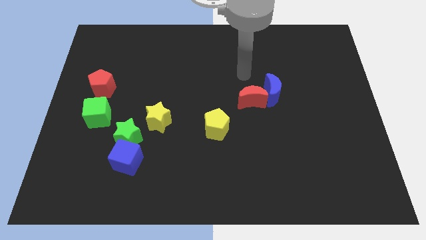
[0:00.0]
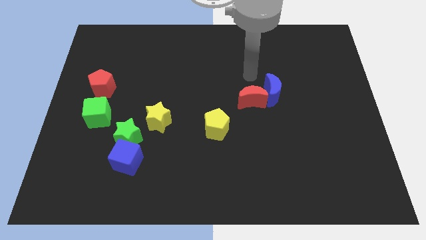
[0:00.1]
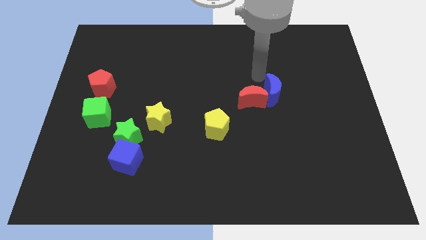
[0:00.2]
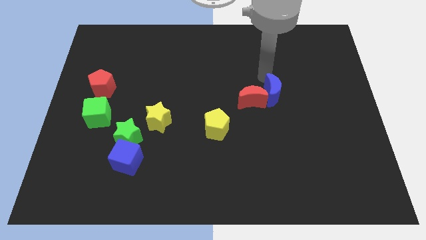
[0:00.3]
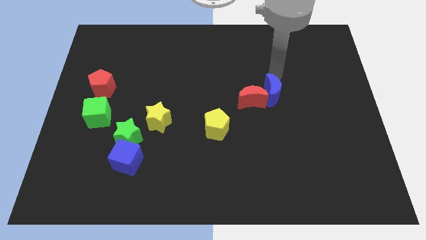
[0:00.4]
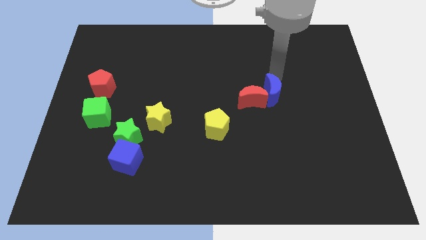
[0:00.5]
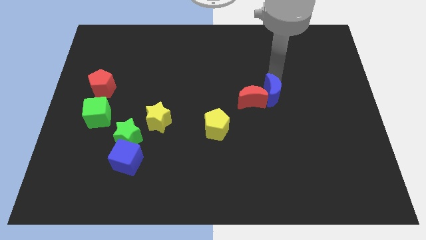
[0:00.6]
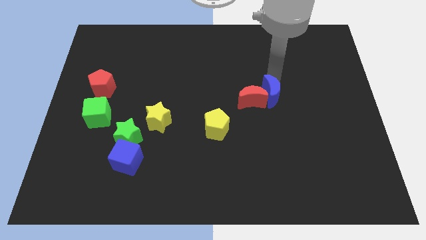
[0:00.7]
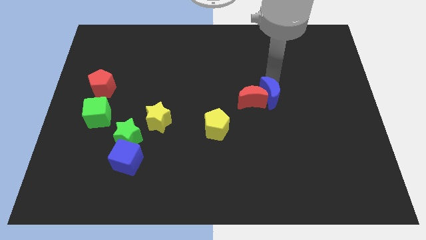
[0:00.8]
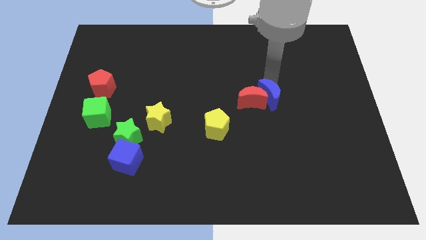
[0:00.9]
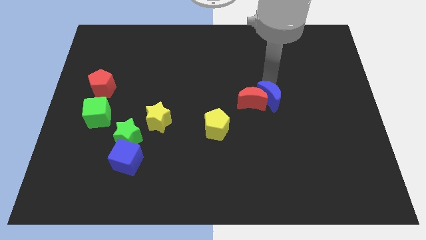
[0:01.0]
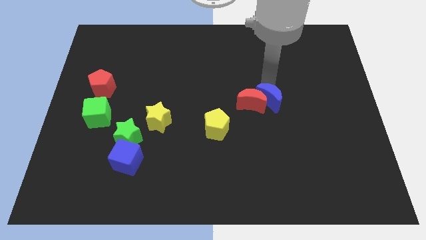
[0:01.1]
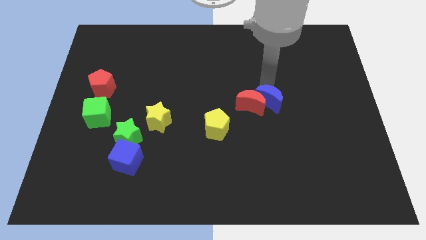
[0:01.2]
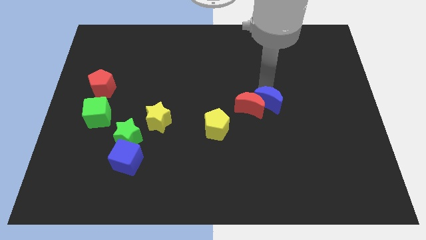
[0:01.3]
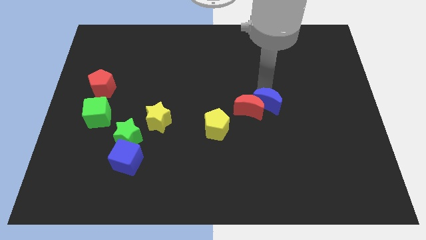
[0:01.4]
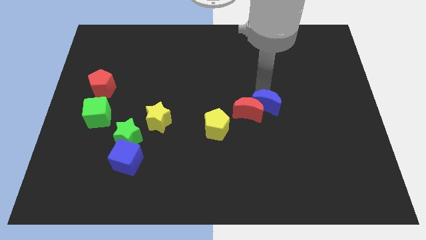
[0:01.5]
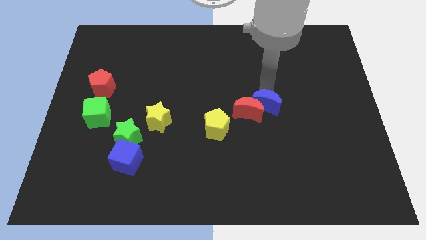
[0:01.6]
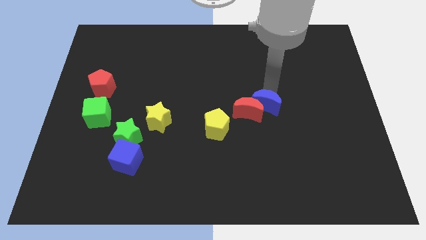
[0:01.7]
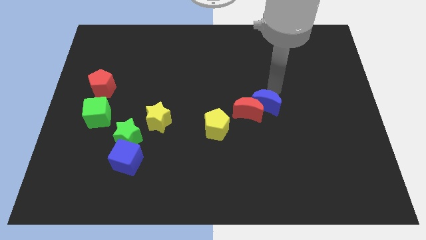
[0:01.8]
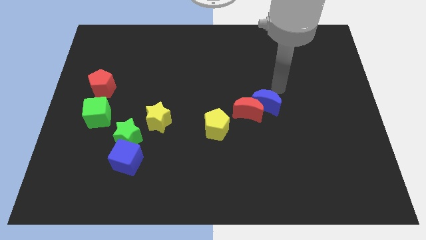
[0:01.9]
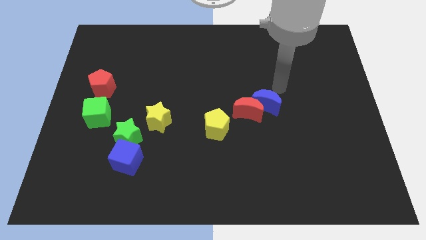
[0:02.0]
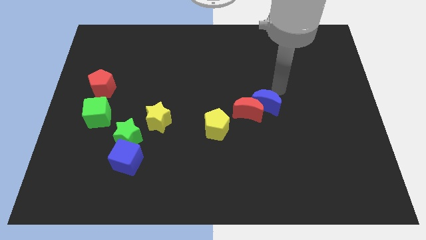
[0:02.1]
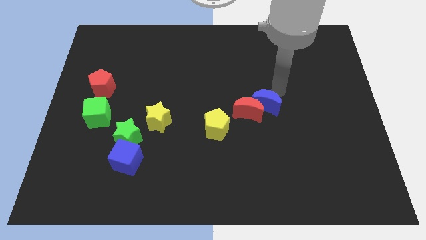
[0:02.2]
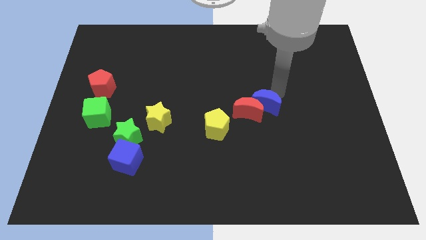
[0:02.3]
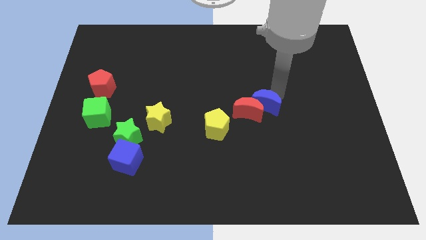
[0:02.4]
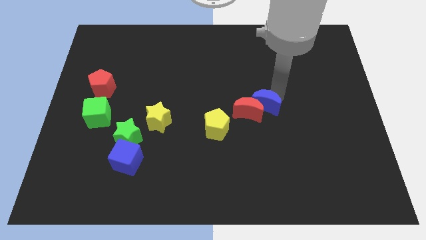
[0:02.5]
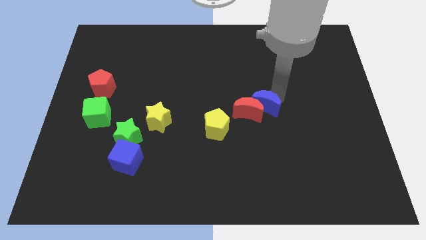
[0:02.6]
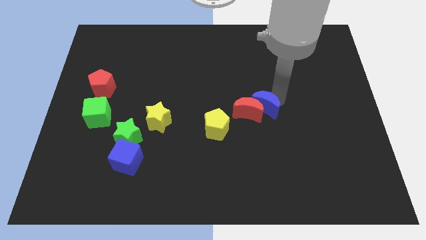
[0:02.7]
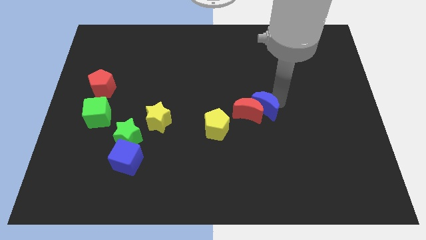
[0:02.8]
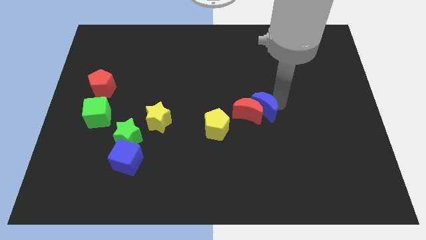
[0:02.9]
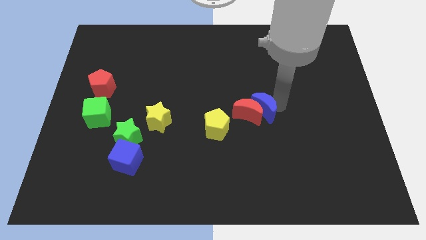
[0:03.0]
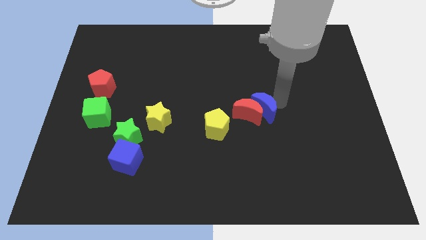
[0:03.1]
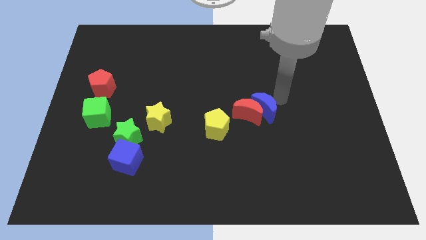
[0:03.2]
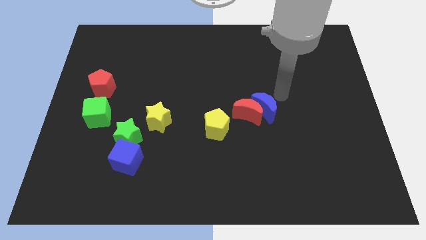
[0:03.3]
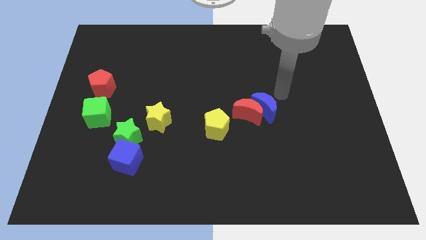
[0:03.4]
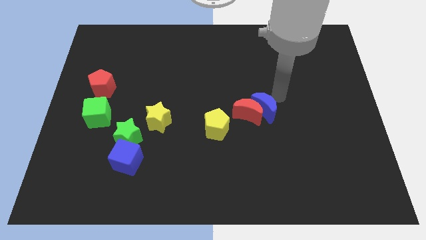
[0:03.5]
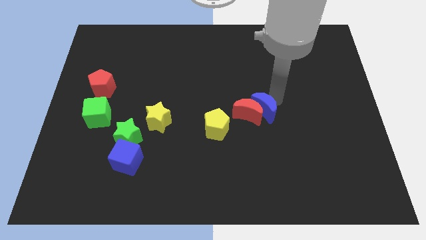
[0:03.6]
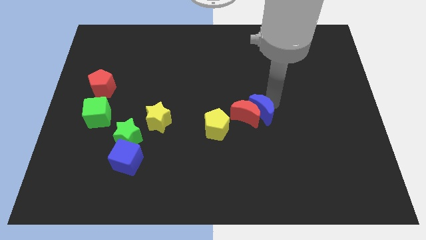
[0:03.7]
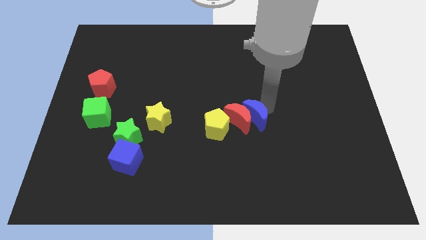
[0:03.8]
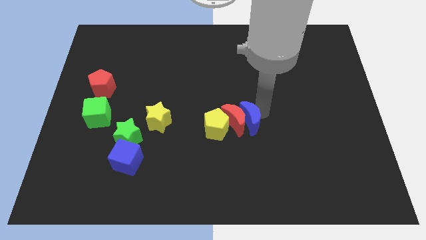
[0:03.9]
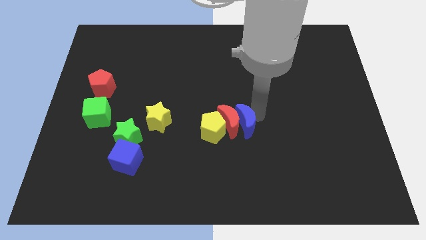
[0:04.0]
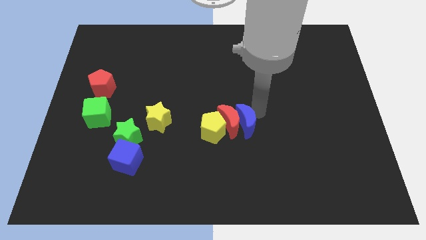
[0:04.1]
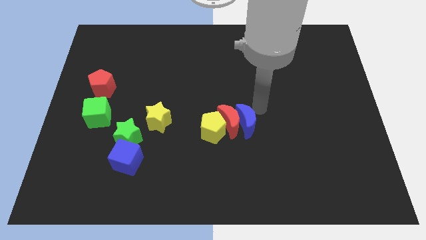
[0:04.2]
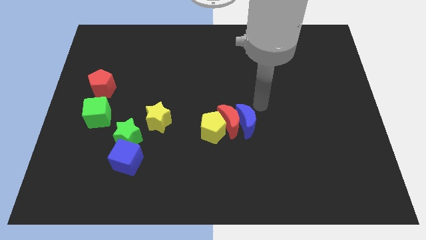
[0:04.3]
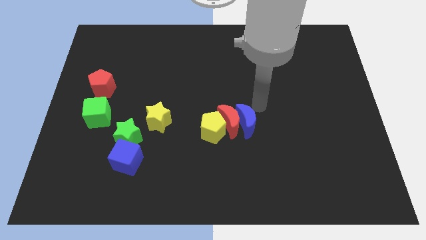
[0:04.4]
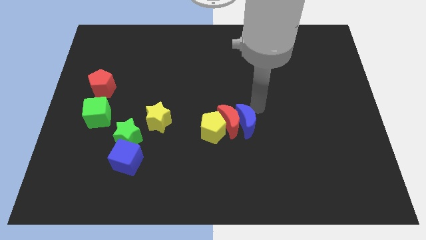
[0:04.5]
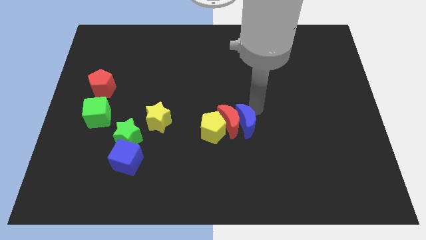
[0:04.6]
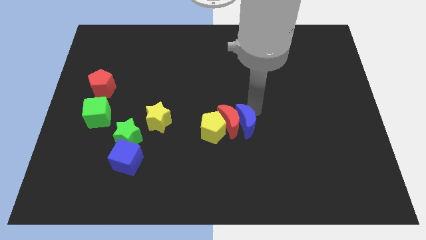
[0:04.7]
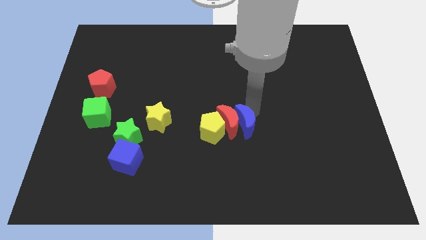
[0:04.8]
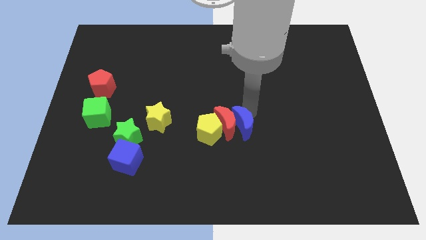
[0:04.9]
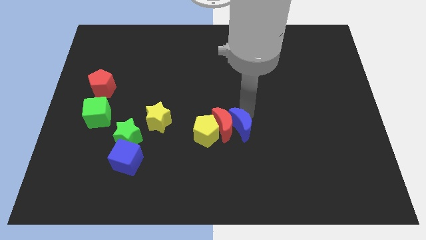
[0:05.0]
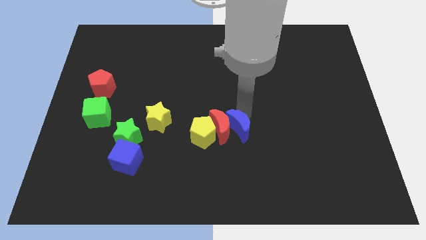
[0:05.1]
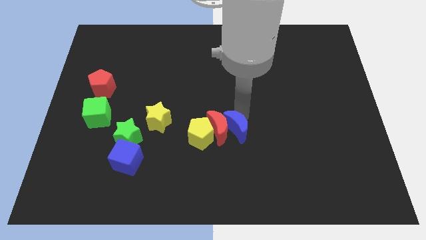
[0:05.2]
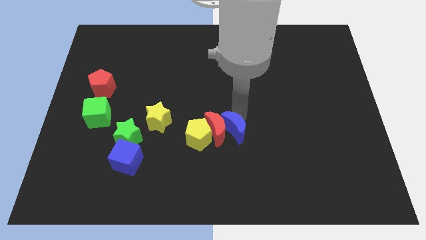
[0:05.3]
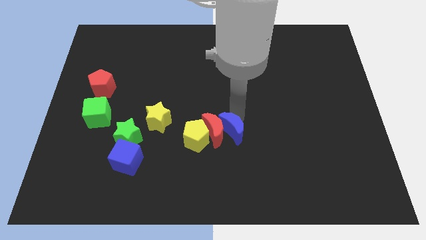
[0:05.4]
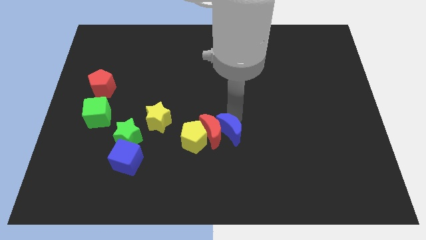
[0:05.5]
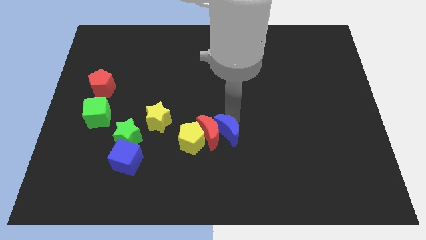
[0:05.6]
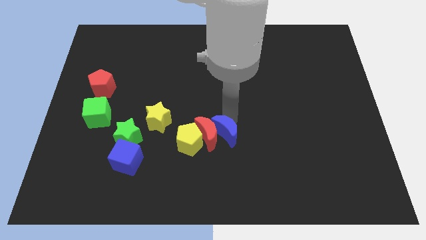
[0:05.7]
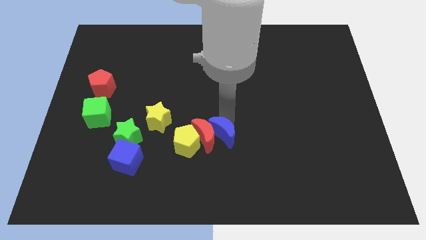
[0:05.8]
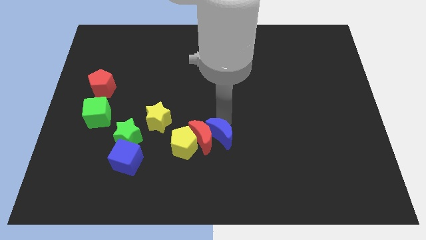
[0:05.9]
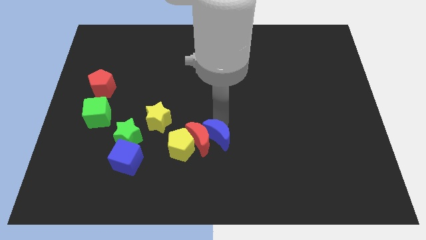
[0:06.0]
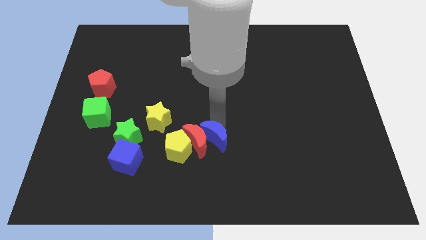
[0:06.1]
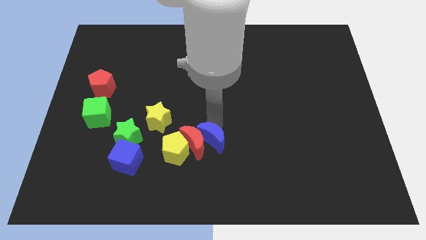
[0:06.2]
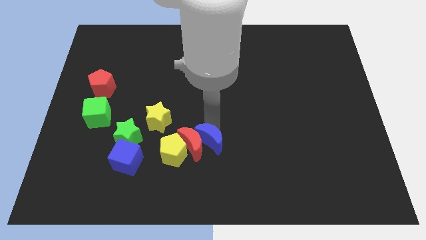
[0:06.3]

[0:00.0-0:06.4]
slide the blue moon downwards and left

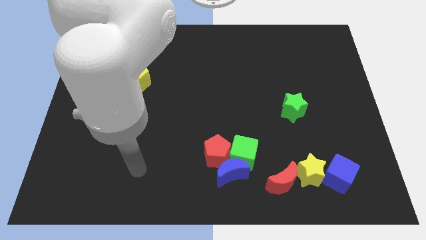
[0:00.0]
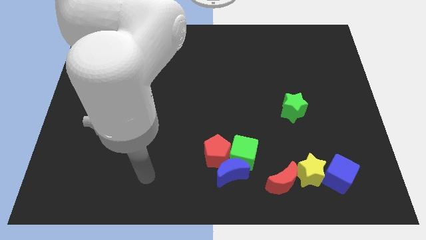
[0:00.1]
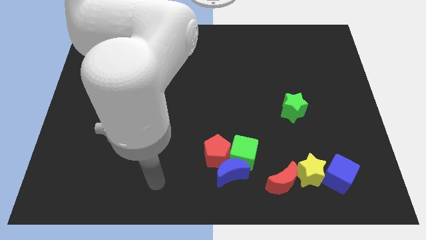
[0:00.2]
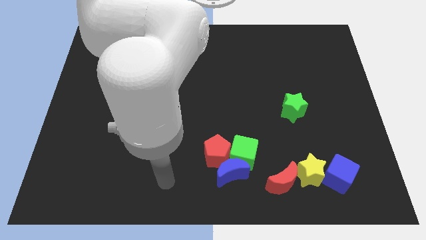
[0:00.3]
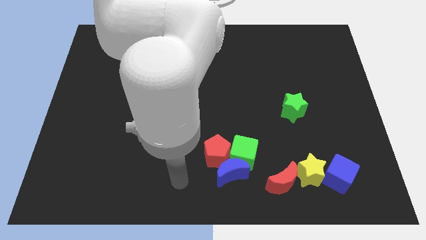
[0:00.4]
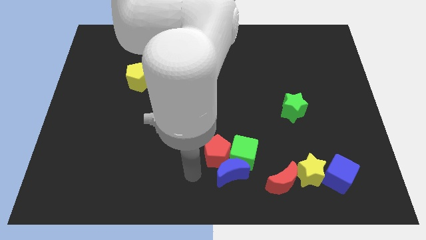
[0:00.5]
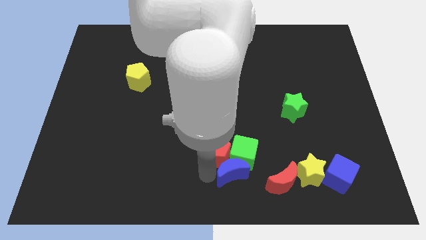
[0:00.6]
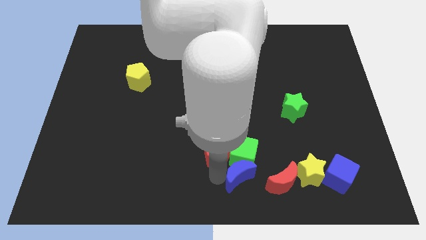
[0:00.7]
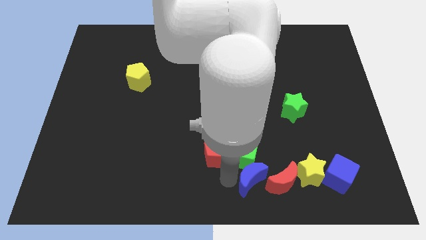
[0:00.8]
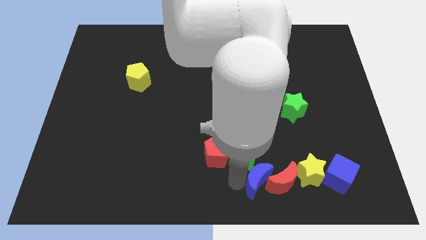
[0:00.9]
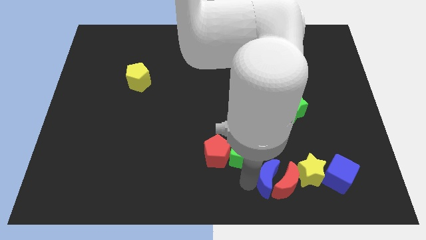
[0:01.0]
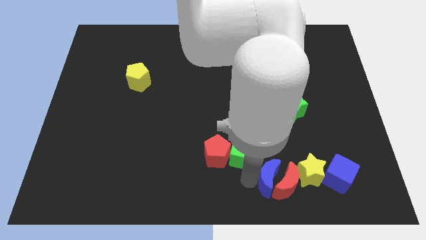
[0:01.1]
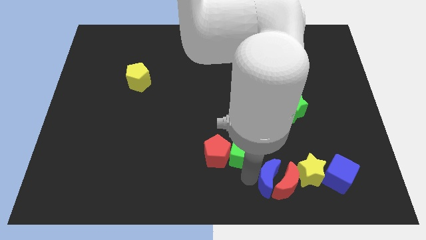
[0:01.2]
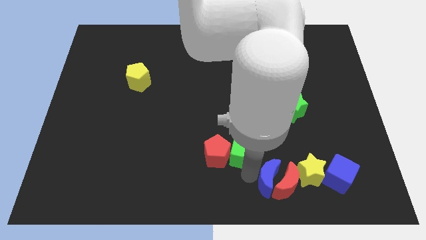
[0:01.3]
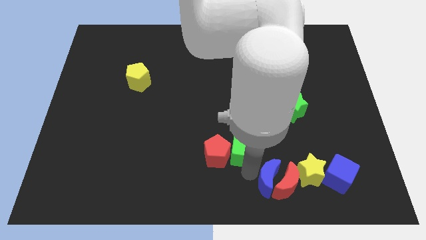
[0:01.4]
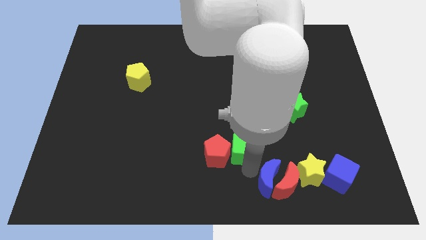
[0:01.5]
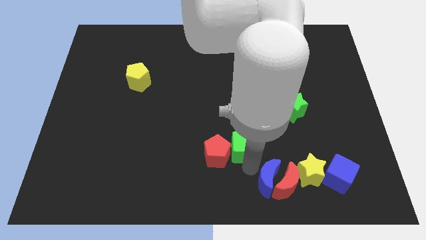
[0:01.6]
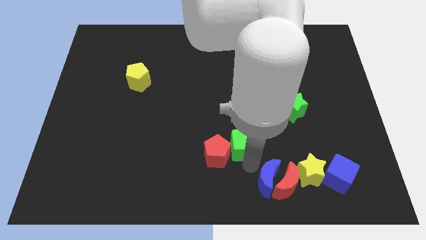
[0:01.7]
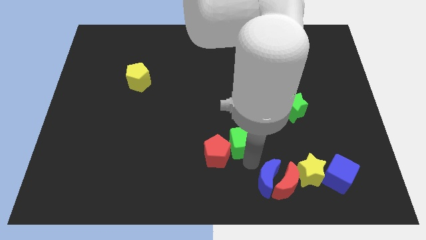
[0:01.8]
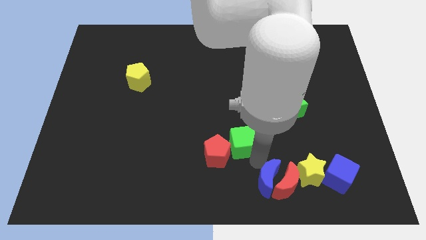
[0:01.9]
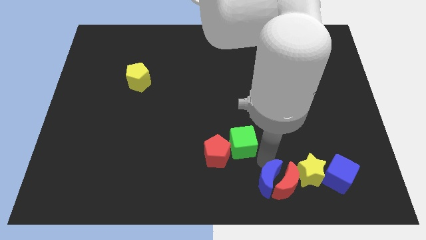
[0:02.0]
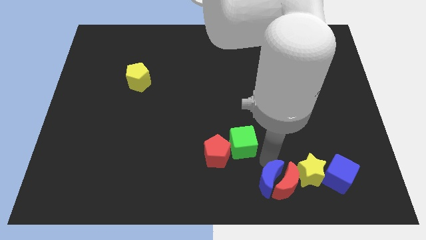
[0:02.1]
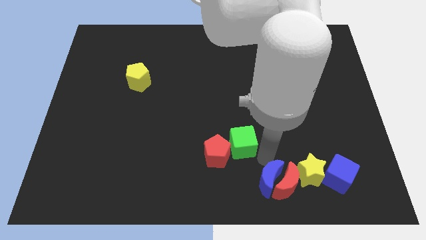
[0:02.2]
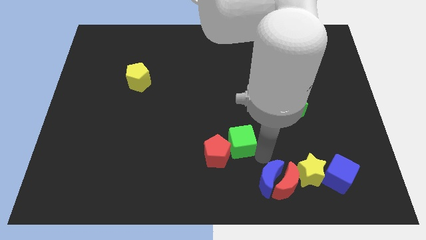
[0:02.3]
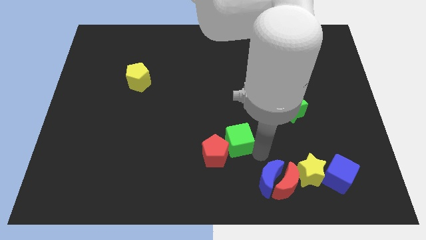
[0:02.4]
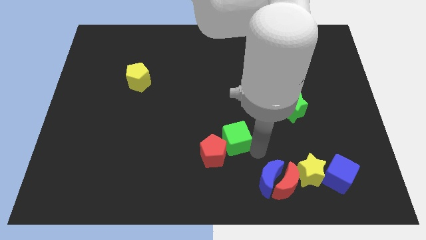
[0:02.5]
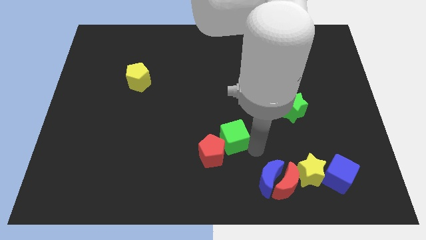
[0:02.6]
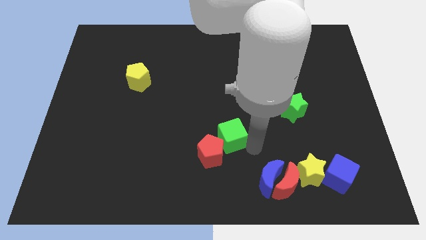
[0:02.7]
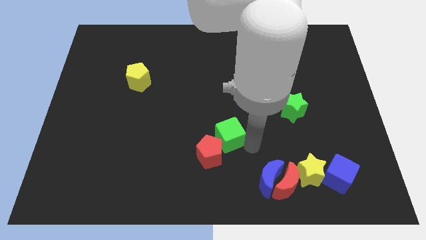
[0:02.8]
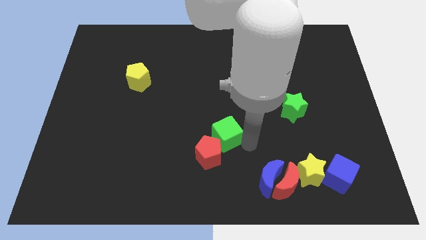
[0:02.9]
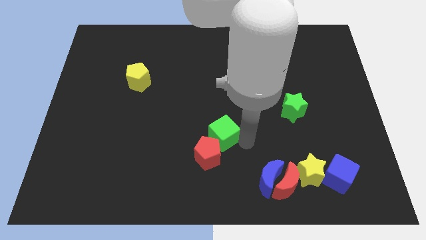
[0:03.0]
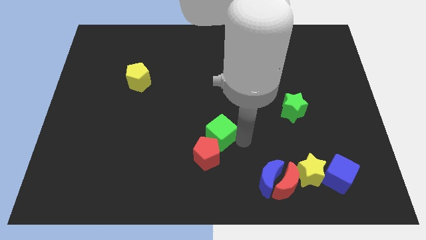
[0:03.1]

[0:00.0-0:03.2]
slide the green cube a bit upwards and to the left diagonally
